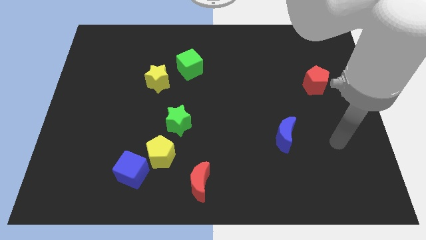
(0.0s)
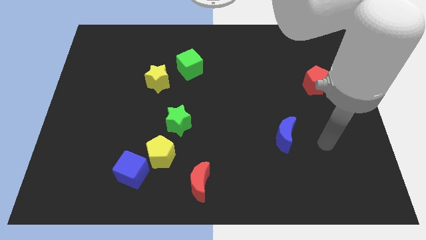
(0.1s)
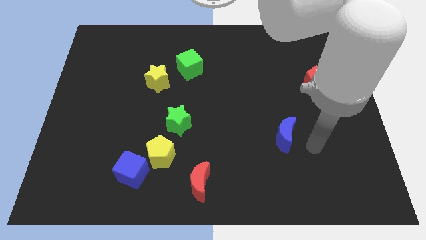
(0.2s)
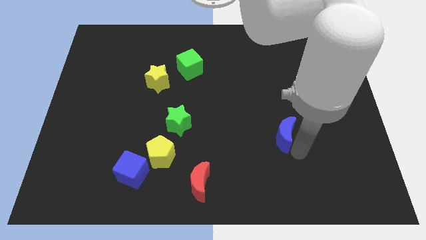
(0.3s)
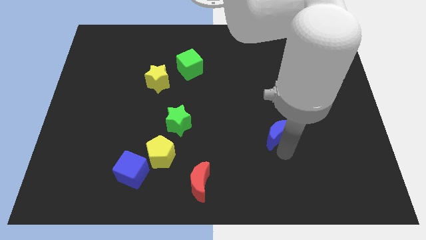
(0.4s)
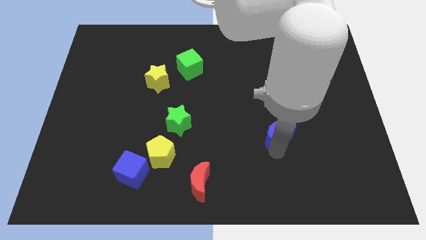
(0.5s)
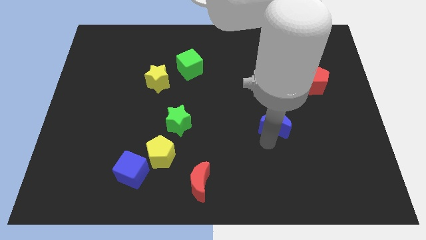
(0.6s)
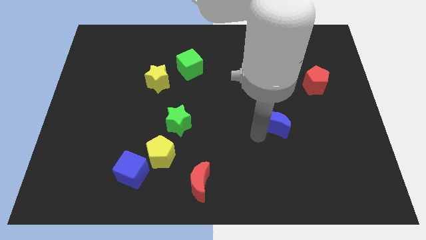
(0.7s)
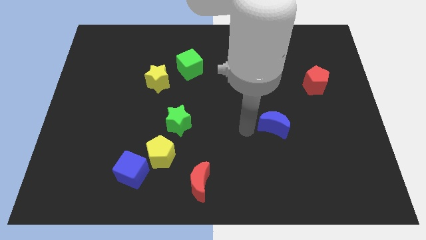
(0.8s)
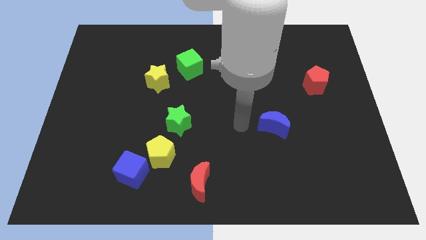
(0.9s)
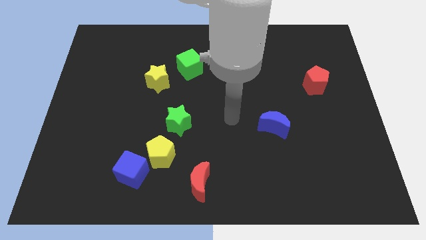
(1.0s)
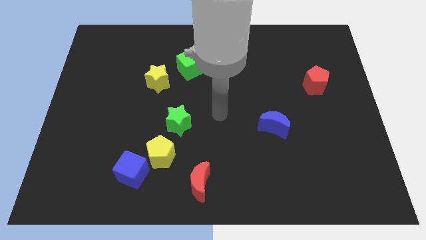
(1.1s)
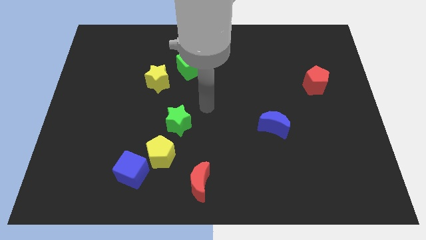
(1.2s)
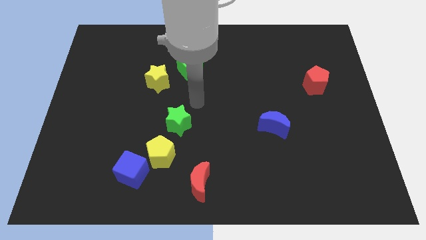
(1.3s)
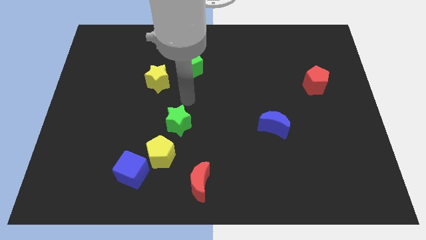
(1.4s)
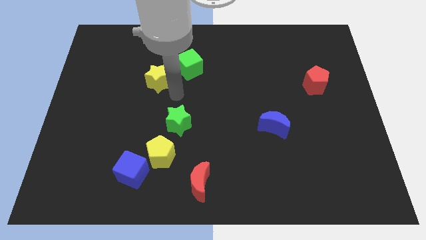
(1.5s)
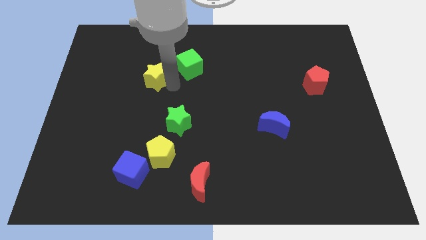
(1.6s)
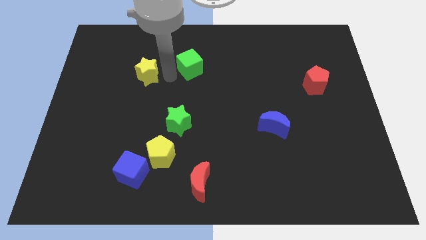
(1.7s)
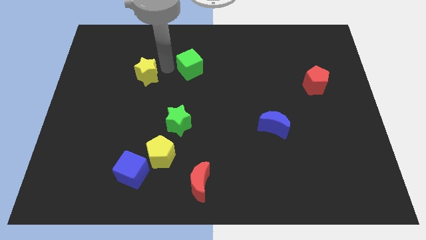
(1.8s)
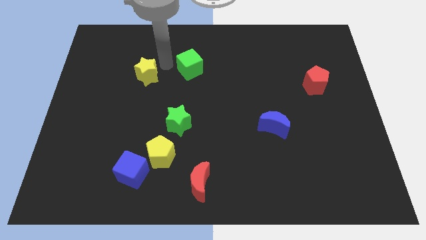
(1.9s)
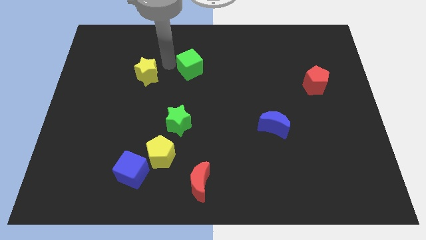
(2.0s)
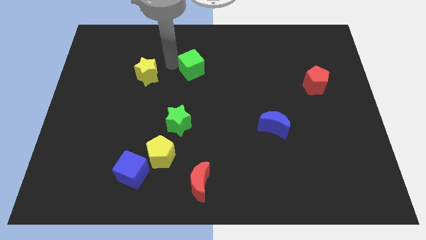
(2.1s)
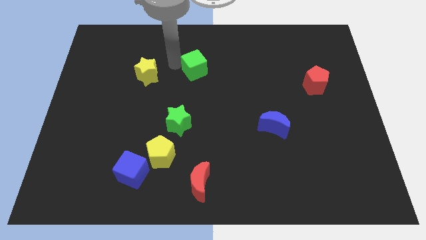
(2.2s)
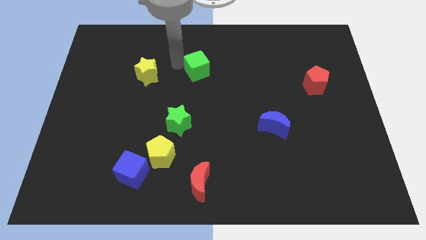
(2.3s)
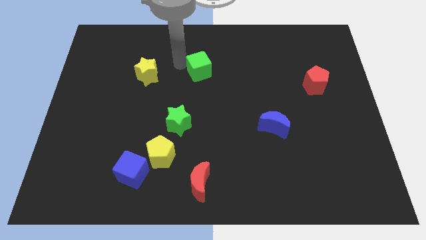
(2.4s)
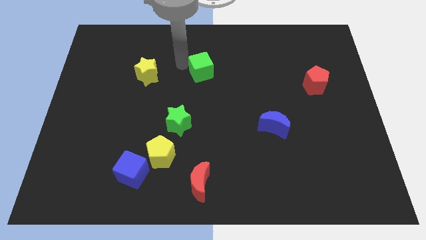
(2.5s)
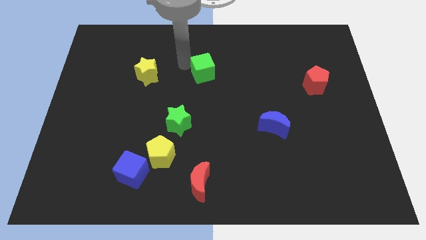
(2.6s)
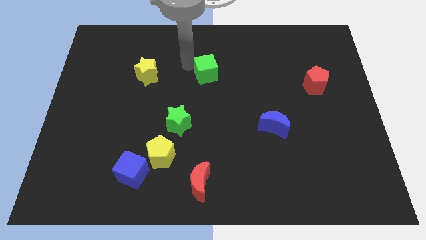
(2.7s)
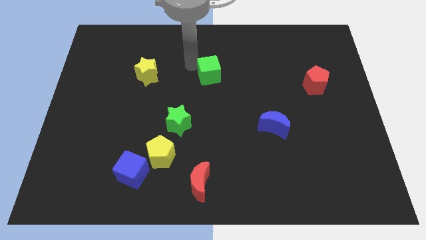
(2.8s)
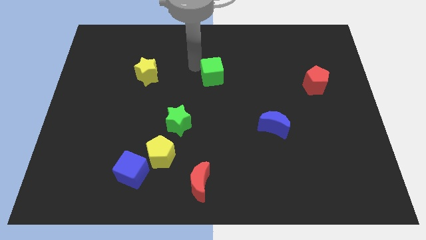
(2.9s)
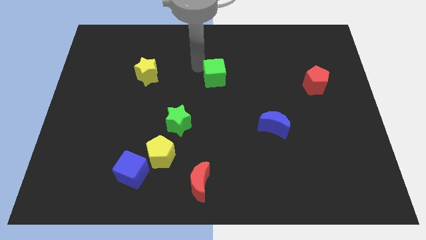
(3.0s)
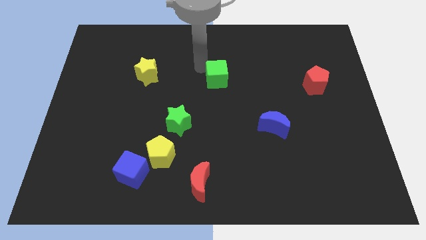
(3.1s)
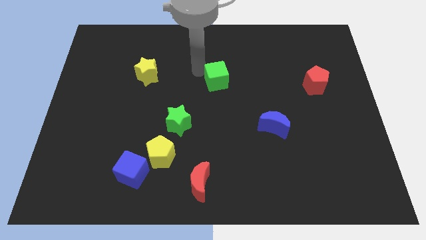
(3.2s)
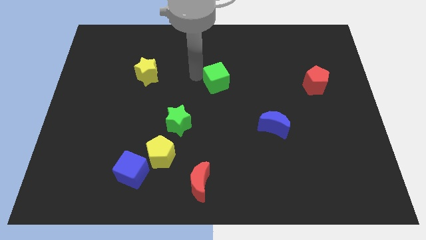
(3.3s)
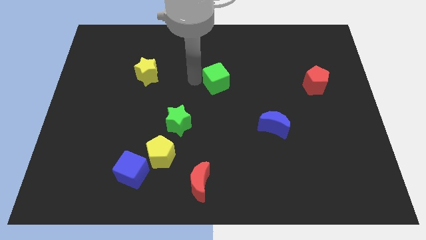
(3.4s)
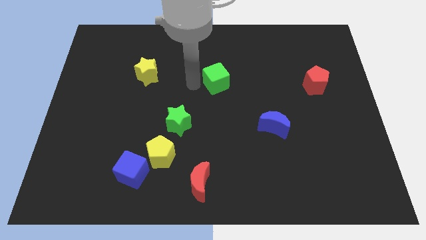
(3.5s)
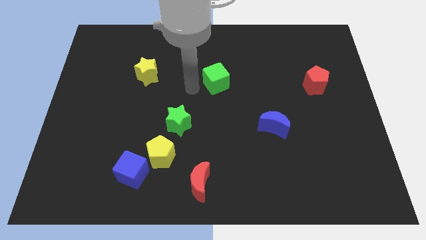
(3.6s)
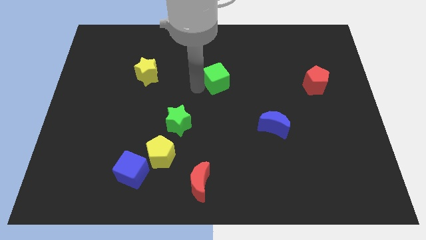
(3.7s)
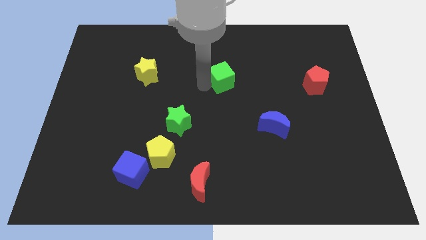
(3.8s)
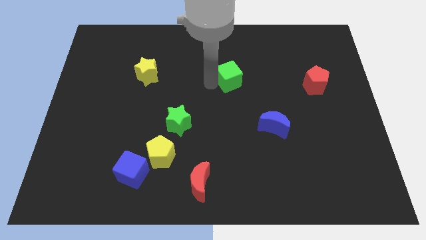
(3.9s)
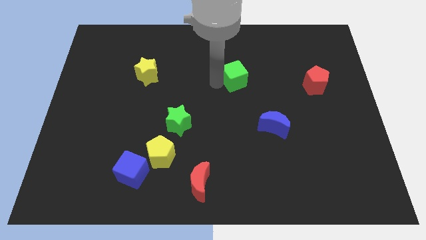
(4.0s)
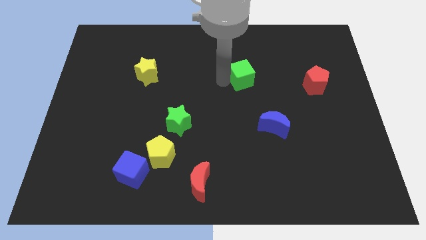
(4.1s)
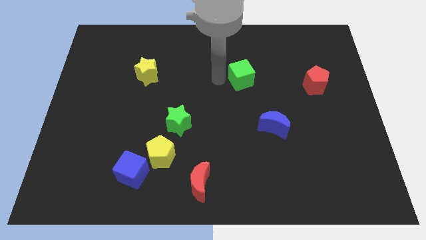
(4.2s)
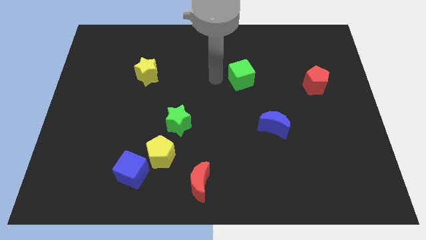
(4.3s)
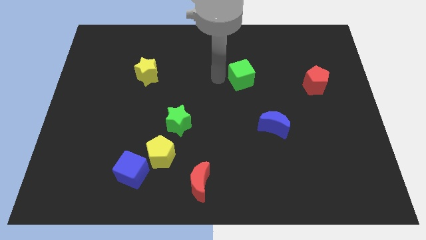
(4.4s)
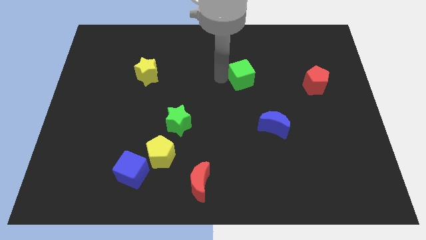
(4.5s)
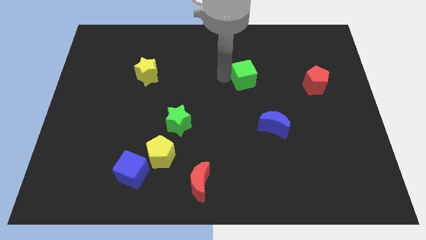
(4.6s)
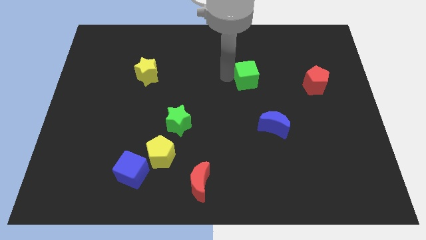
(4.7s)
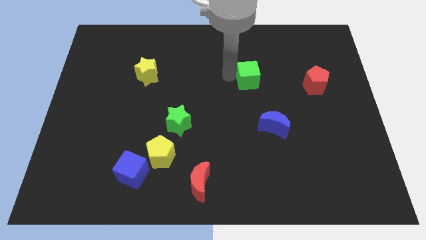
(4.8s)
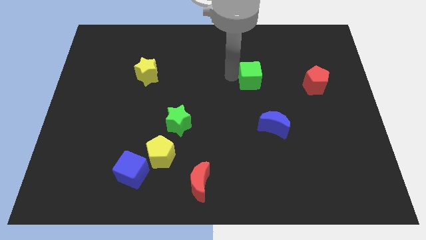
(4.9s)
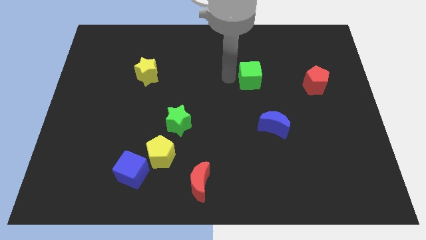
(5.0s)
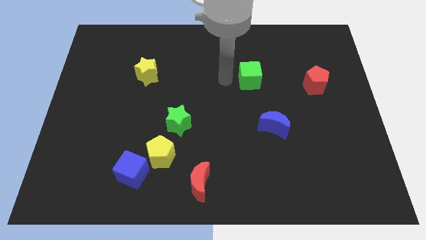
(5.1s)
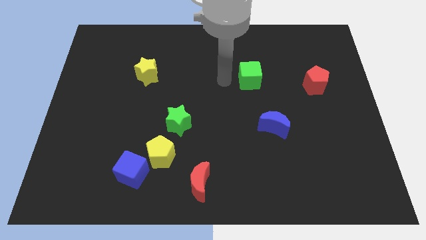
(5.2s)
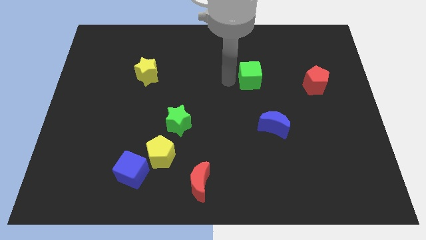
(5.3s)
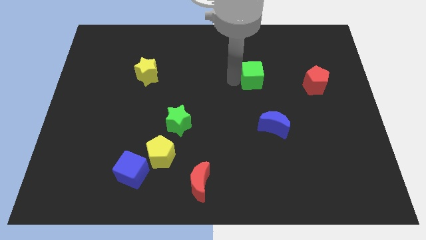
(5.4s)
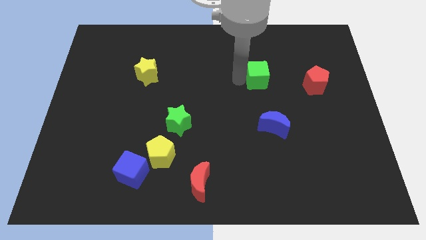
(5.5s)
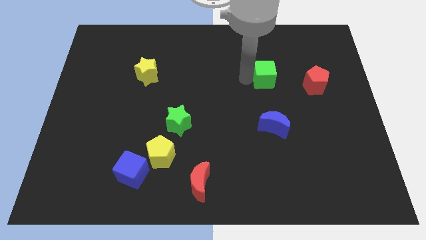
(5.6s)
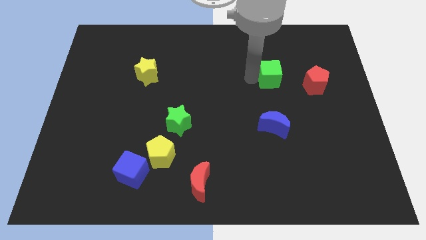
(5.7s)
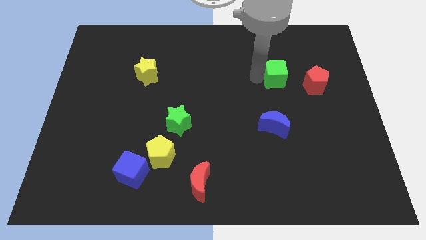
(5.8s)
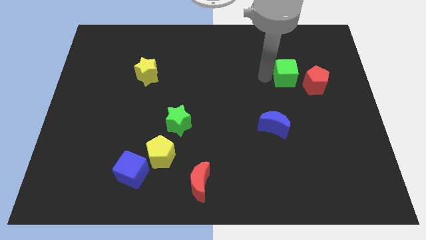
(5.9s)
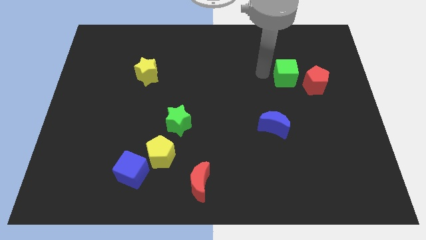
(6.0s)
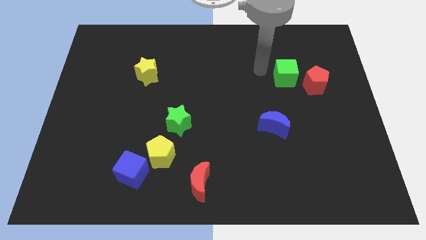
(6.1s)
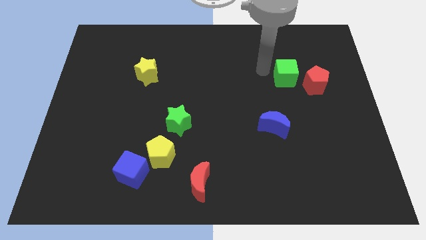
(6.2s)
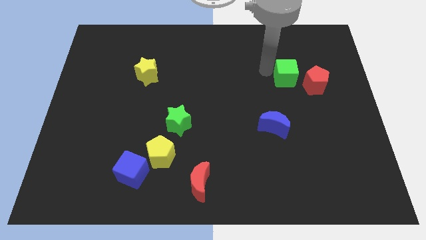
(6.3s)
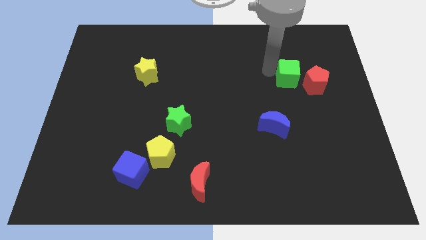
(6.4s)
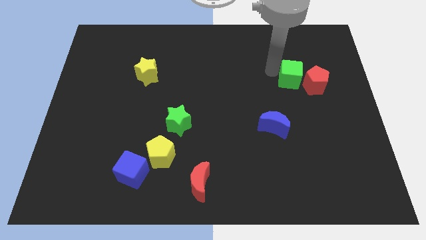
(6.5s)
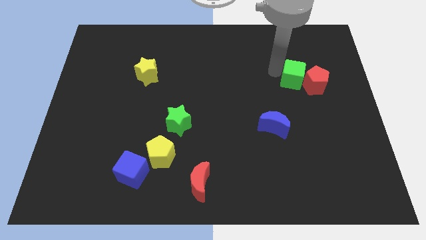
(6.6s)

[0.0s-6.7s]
move the green cube next to the red pentagon
